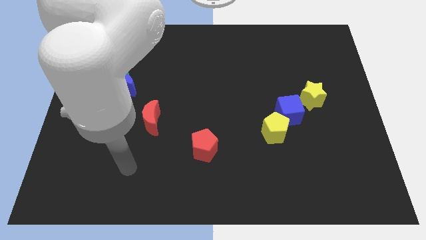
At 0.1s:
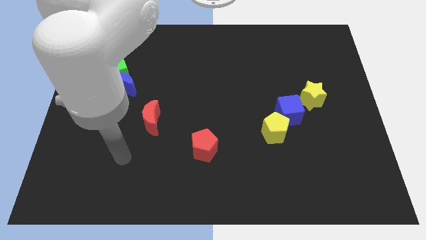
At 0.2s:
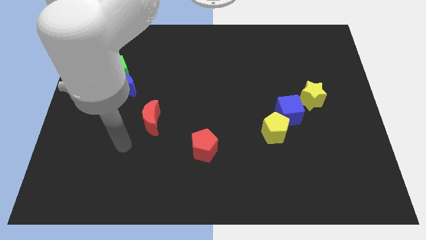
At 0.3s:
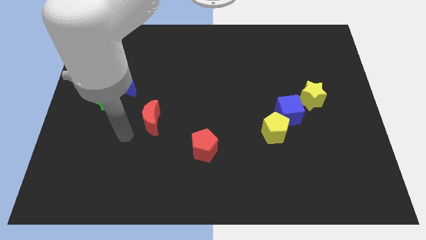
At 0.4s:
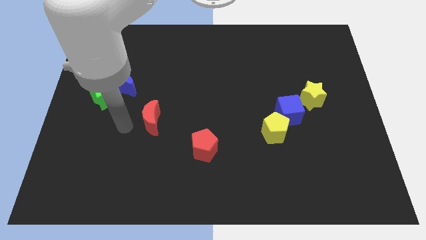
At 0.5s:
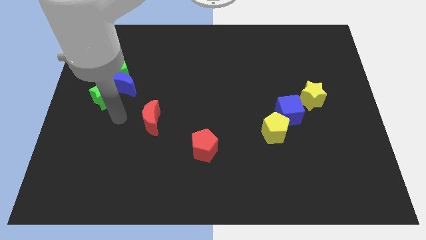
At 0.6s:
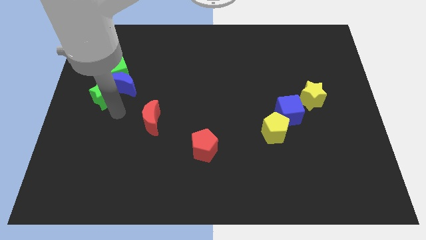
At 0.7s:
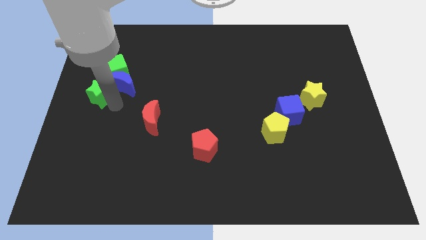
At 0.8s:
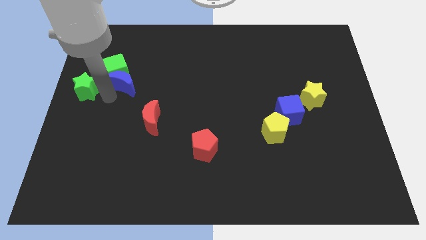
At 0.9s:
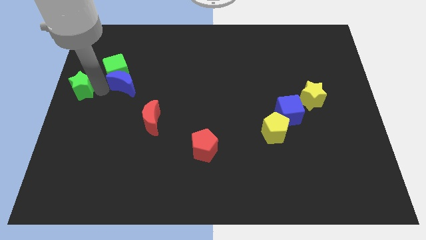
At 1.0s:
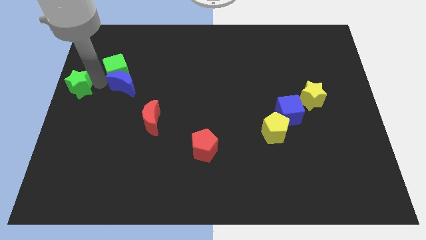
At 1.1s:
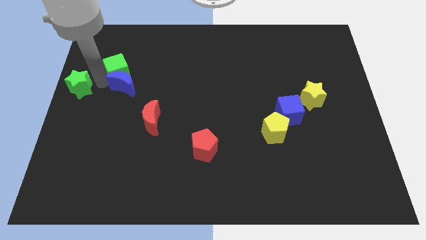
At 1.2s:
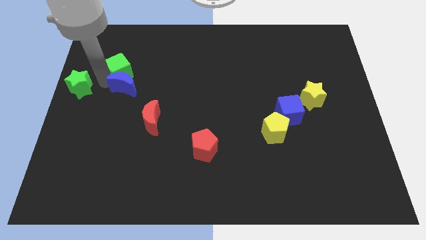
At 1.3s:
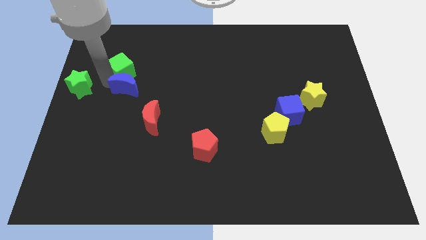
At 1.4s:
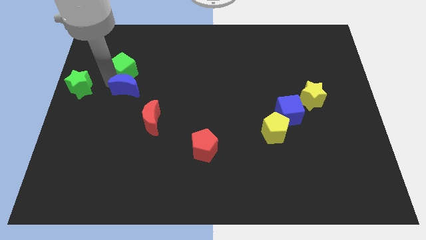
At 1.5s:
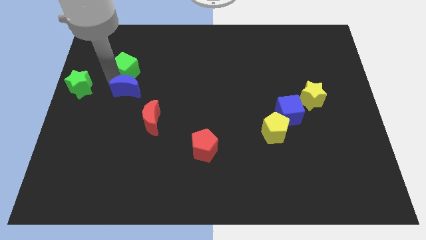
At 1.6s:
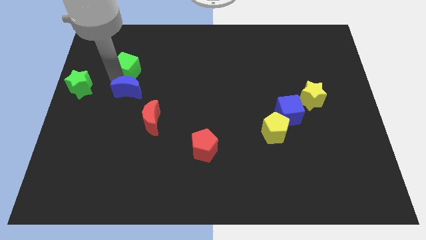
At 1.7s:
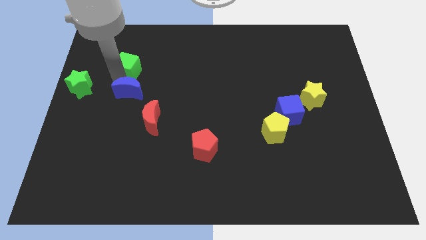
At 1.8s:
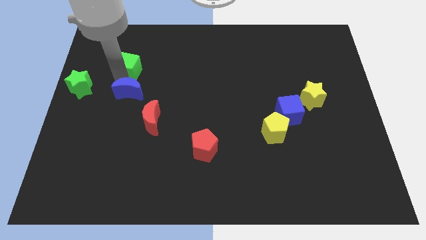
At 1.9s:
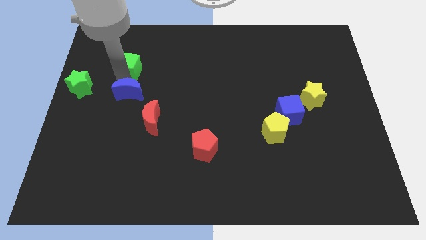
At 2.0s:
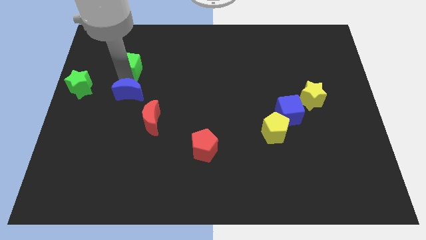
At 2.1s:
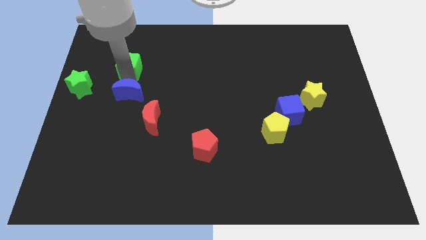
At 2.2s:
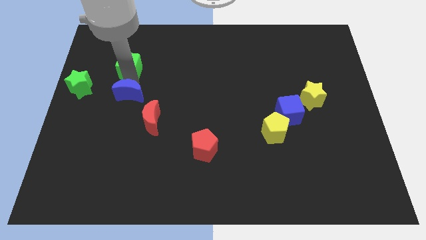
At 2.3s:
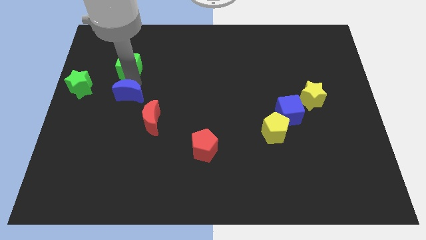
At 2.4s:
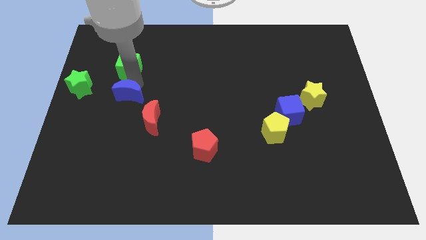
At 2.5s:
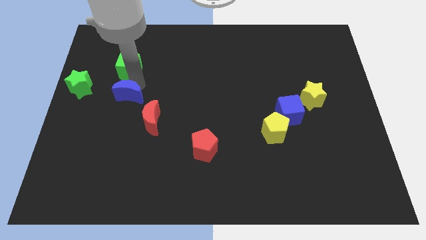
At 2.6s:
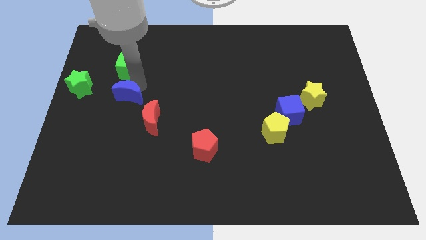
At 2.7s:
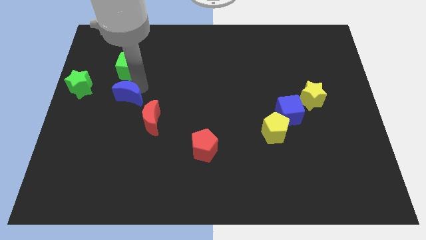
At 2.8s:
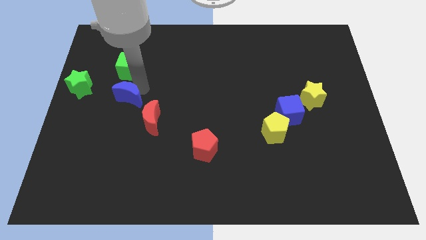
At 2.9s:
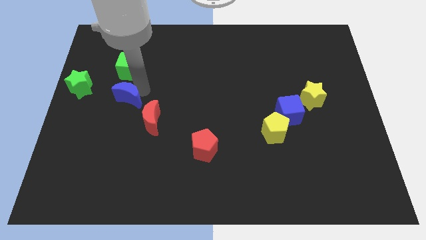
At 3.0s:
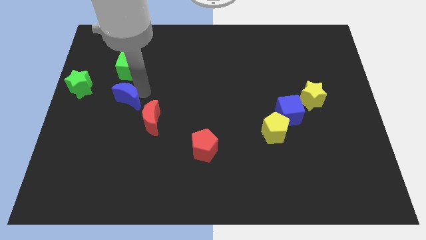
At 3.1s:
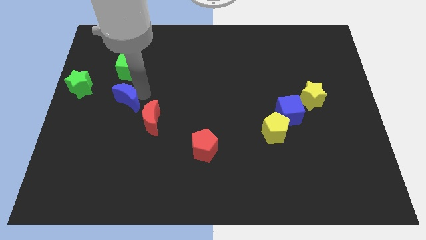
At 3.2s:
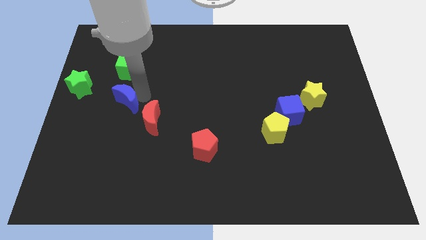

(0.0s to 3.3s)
separate the blue moon from the green cube and green star

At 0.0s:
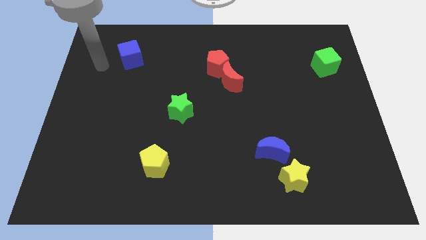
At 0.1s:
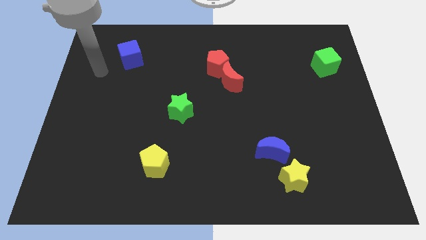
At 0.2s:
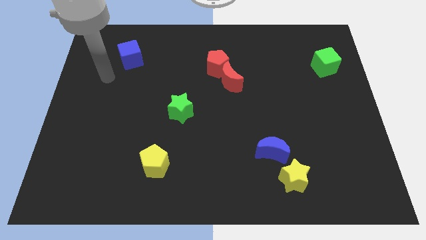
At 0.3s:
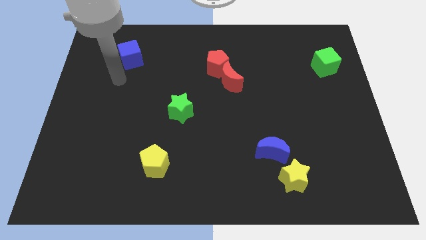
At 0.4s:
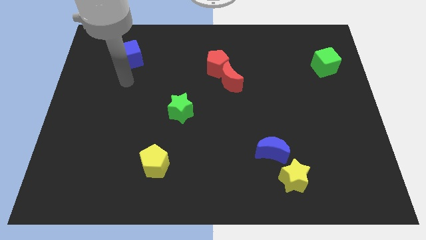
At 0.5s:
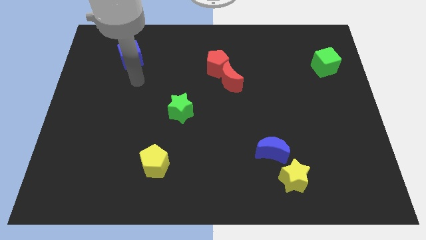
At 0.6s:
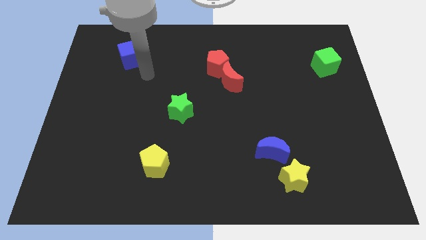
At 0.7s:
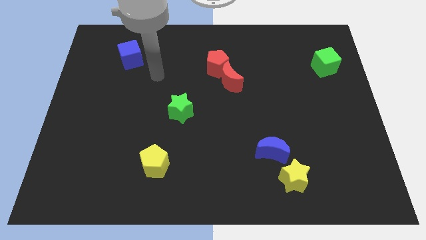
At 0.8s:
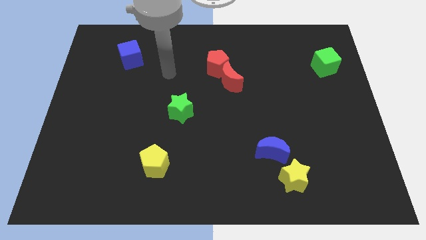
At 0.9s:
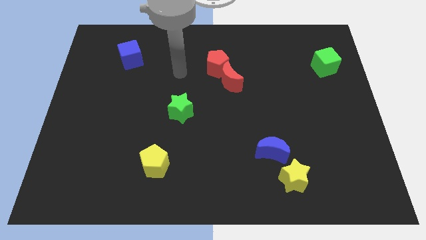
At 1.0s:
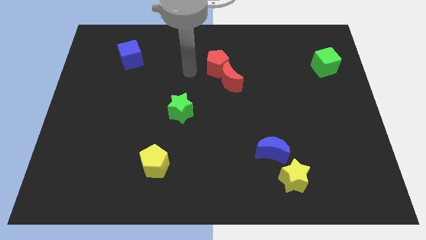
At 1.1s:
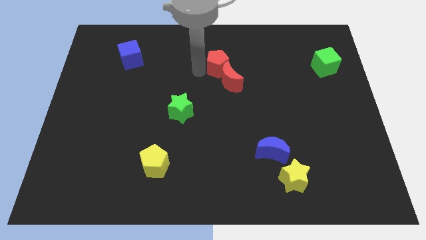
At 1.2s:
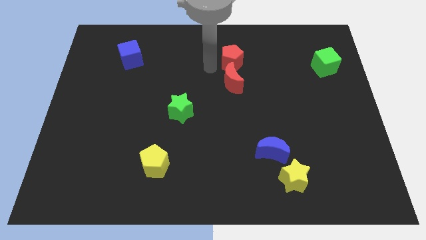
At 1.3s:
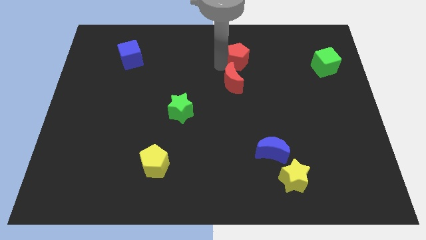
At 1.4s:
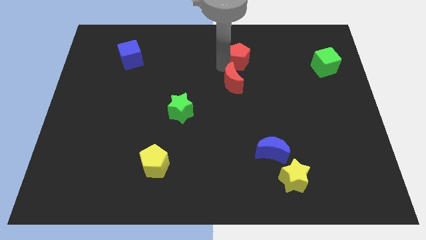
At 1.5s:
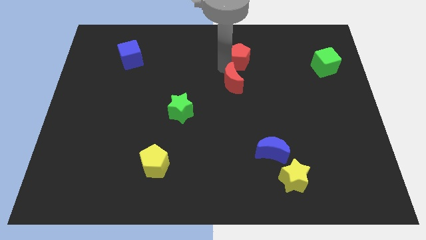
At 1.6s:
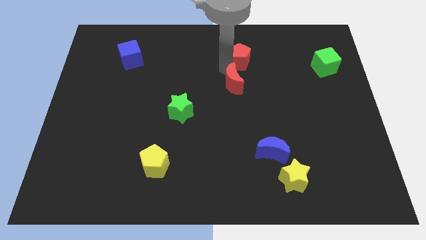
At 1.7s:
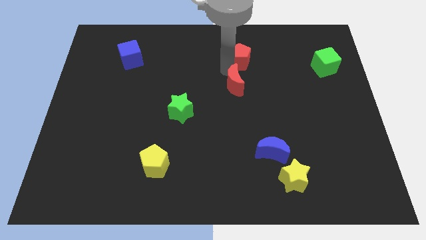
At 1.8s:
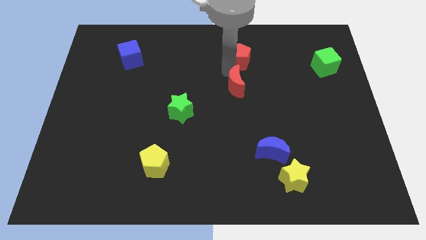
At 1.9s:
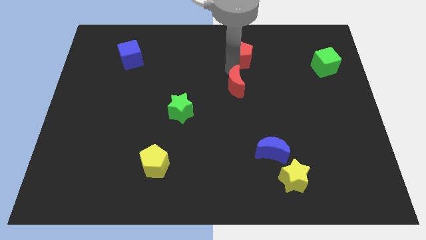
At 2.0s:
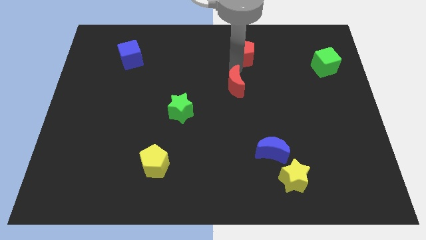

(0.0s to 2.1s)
move the red moon away from the red pentagon

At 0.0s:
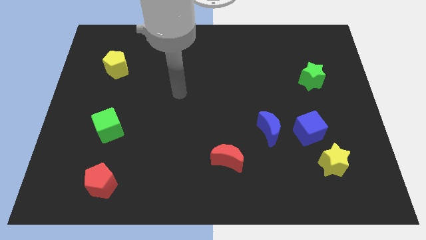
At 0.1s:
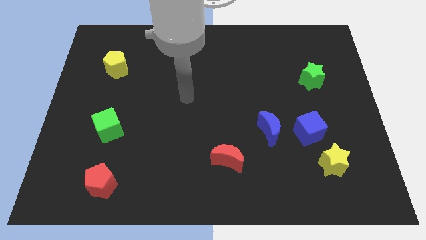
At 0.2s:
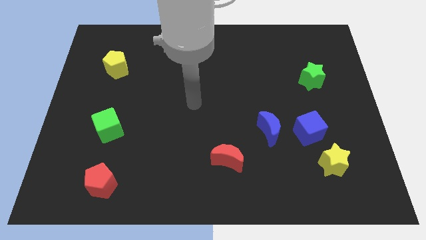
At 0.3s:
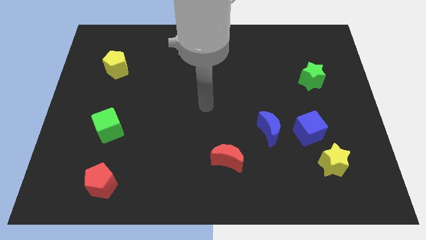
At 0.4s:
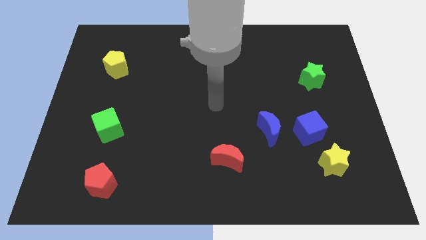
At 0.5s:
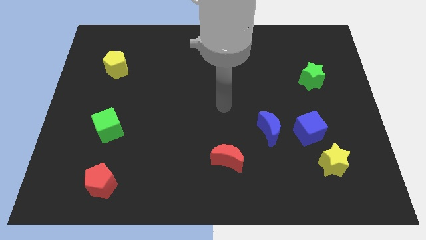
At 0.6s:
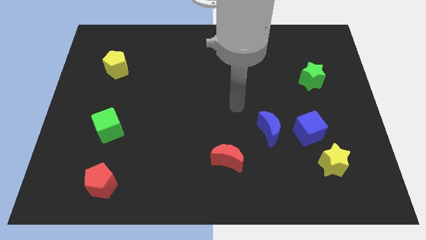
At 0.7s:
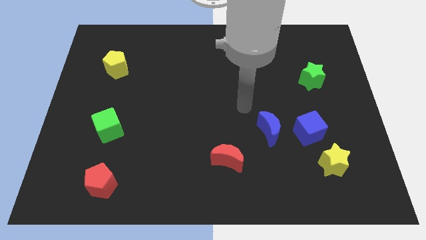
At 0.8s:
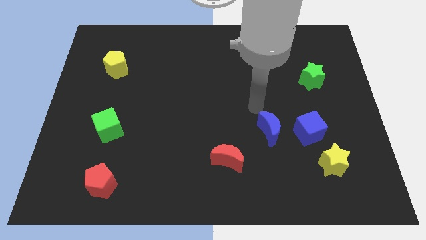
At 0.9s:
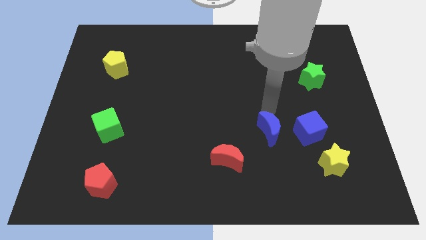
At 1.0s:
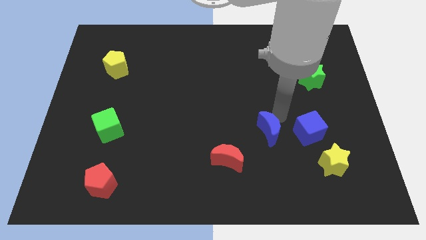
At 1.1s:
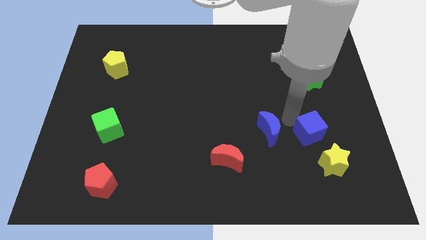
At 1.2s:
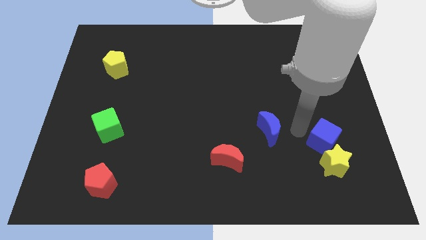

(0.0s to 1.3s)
separate the blue moon from the blue cube

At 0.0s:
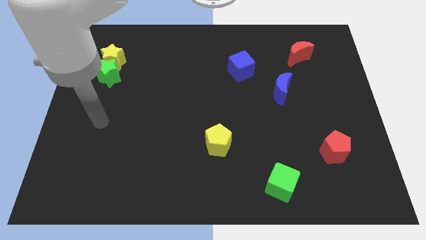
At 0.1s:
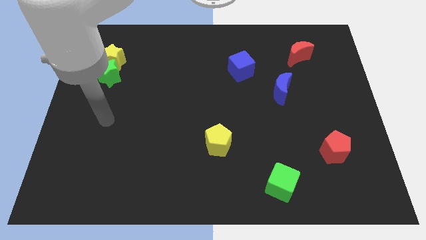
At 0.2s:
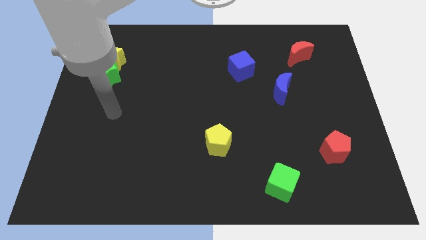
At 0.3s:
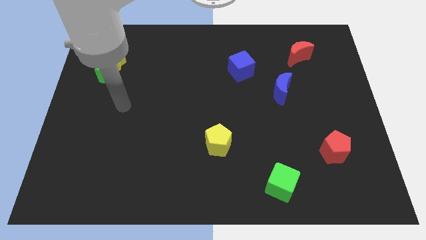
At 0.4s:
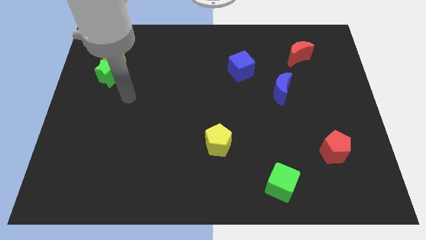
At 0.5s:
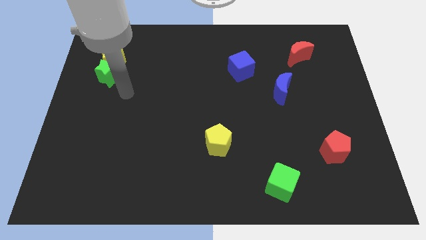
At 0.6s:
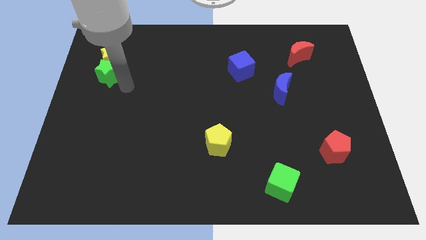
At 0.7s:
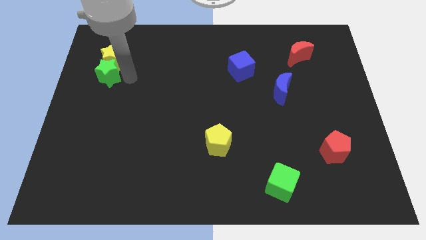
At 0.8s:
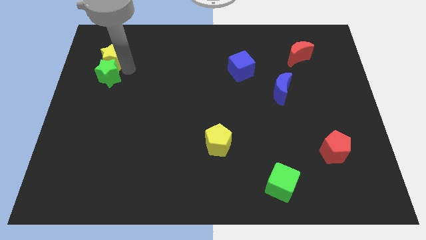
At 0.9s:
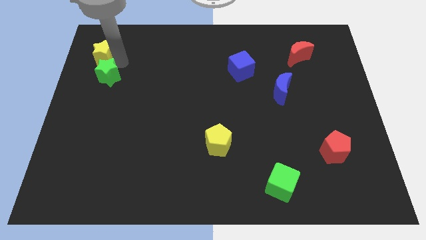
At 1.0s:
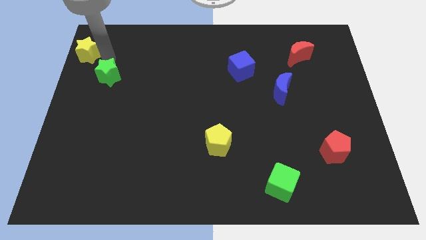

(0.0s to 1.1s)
move the green star away from the yellow star

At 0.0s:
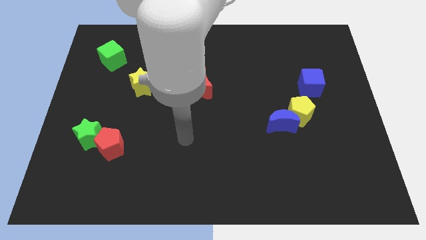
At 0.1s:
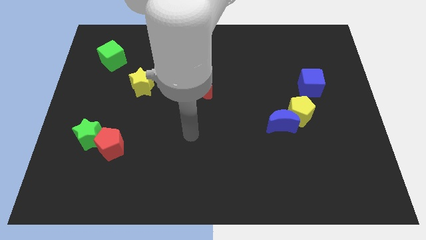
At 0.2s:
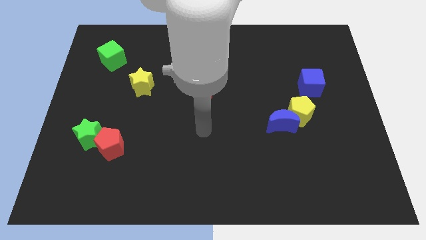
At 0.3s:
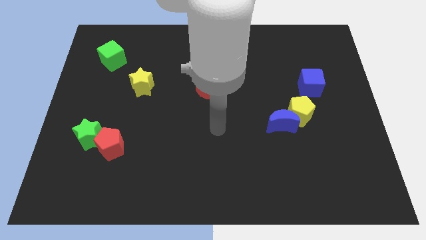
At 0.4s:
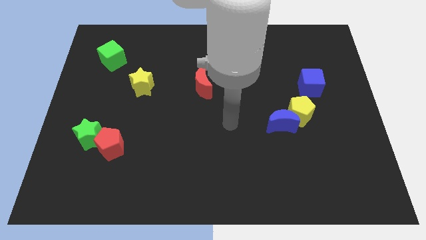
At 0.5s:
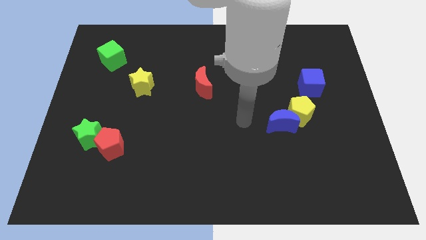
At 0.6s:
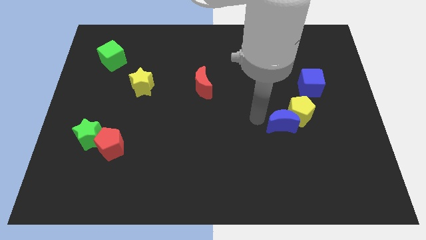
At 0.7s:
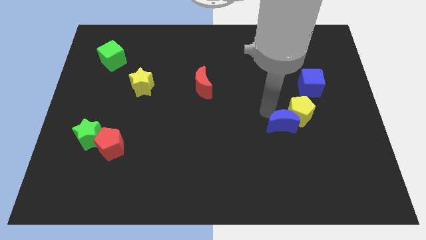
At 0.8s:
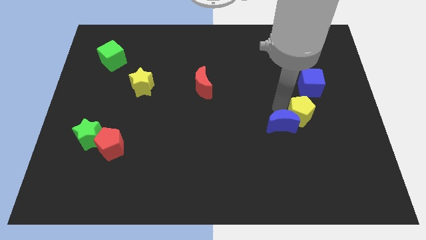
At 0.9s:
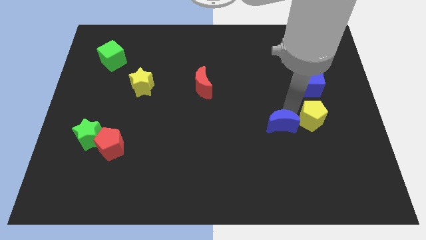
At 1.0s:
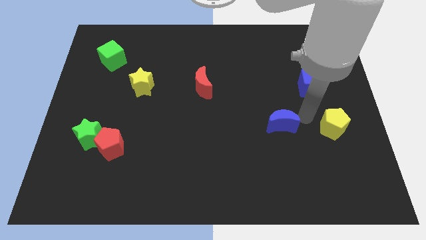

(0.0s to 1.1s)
move the blue moon away from the yellow pentagon

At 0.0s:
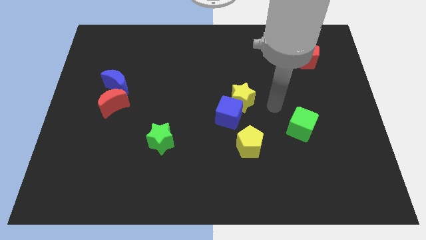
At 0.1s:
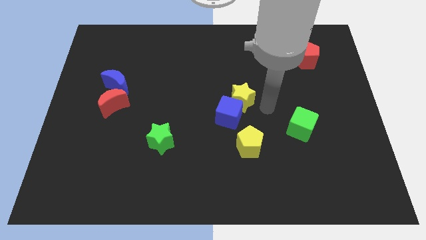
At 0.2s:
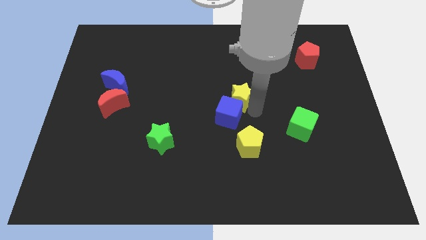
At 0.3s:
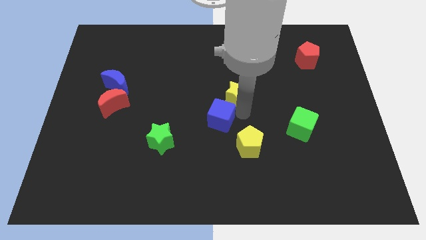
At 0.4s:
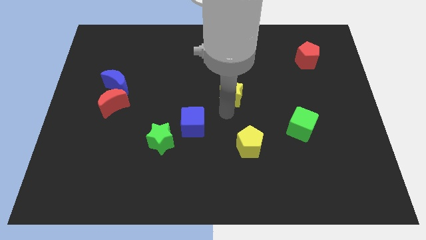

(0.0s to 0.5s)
separate the yellow star from the blue cube

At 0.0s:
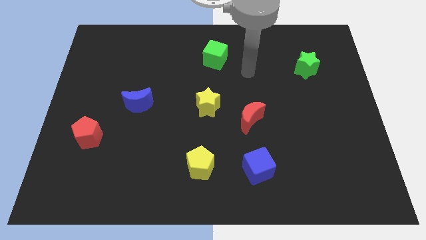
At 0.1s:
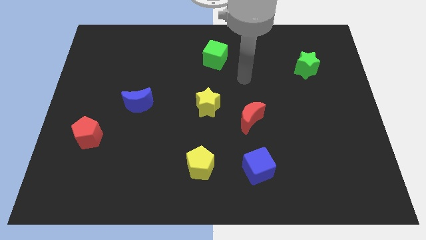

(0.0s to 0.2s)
separate the red moon from the yellow star
